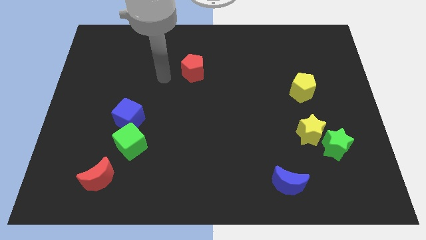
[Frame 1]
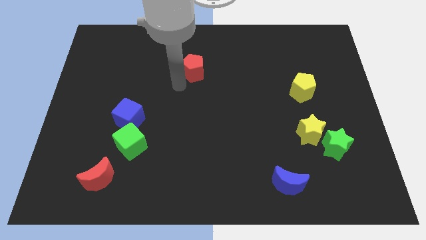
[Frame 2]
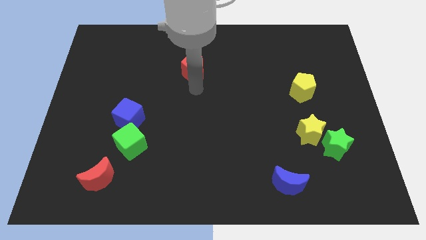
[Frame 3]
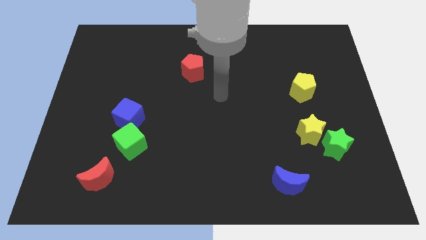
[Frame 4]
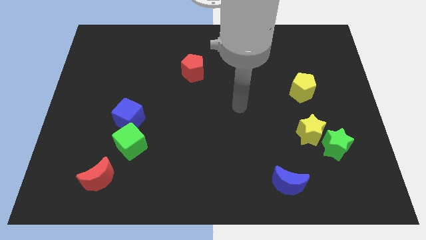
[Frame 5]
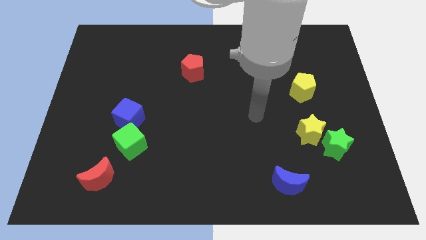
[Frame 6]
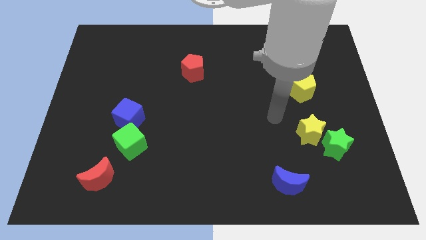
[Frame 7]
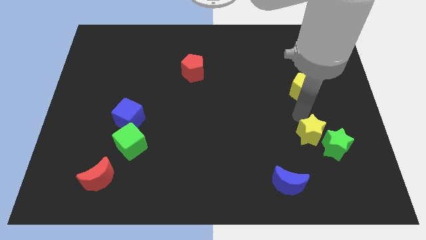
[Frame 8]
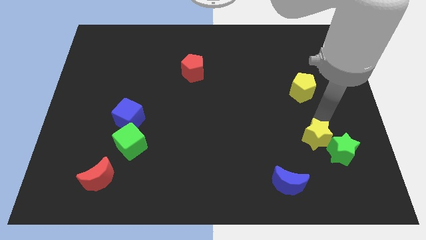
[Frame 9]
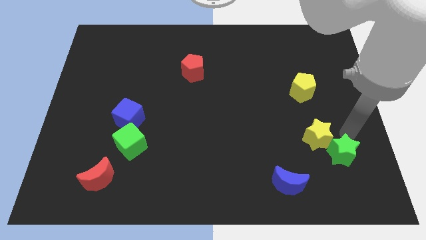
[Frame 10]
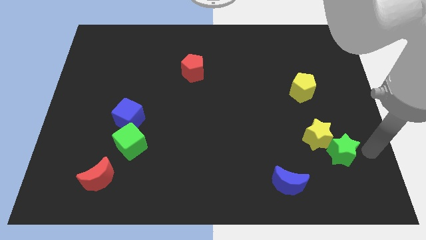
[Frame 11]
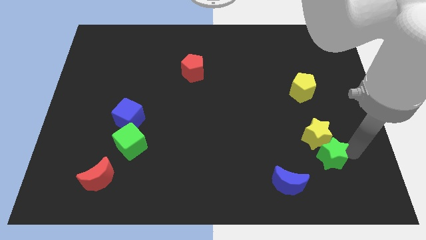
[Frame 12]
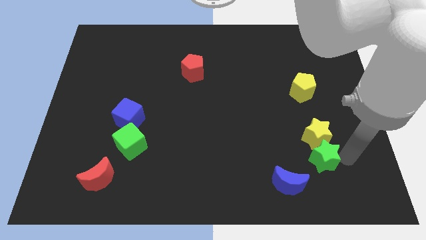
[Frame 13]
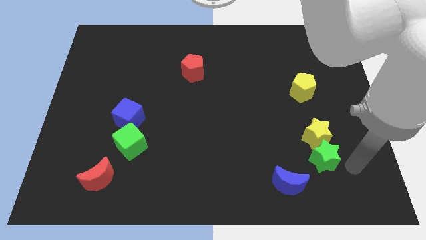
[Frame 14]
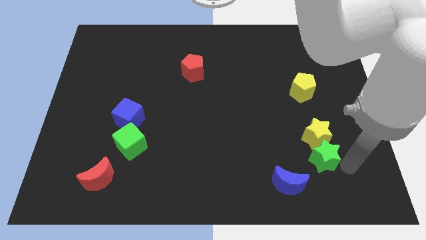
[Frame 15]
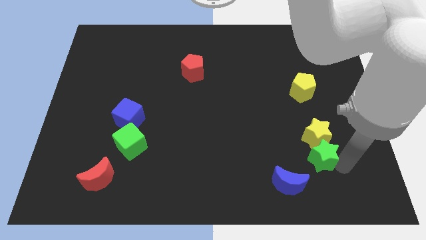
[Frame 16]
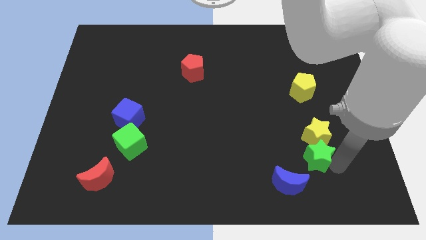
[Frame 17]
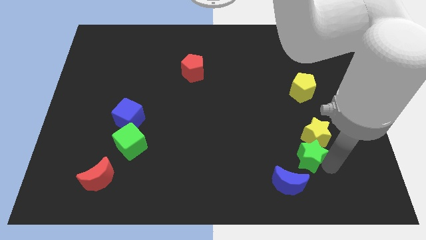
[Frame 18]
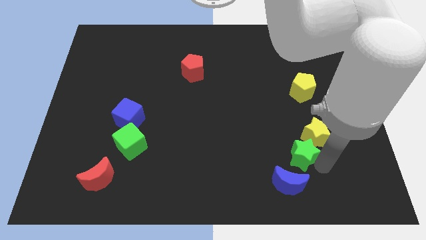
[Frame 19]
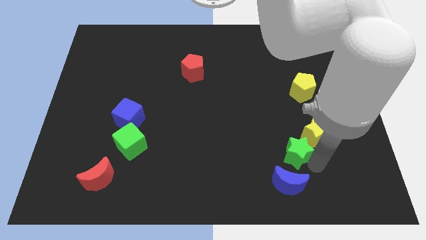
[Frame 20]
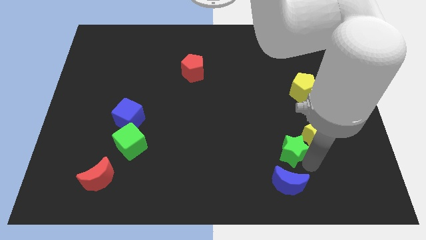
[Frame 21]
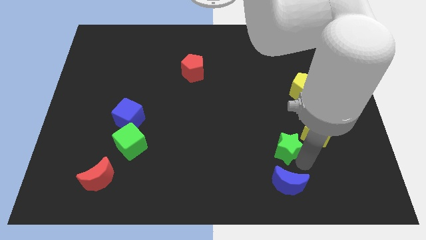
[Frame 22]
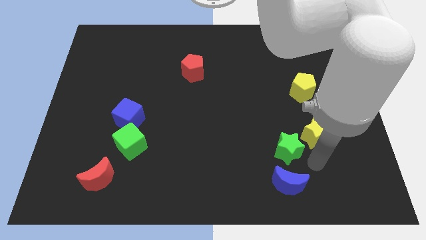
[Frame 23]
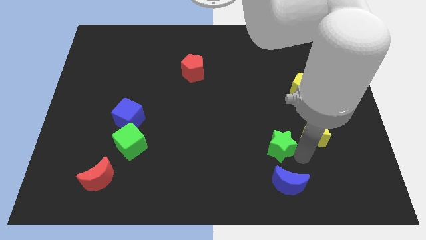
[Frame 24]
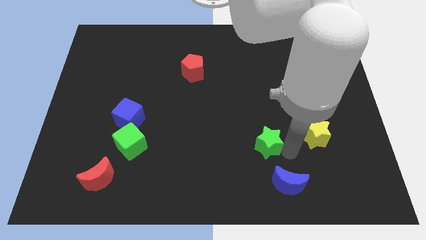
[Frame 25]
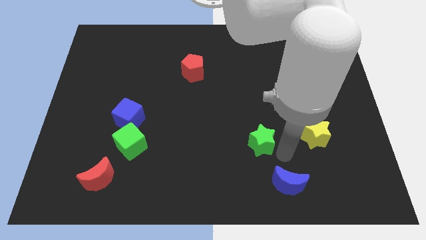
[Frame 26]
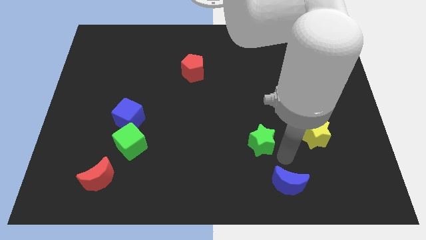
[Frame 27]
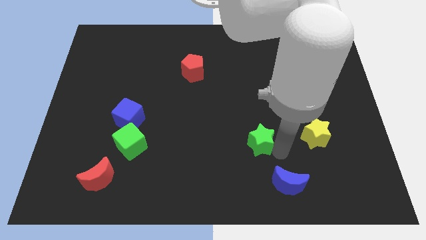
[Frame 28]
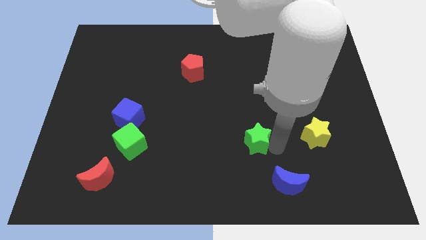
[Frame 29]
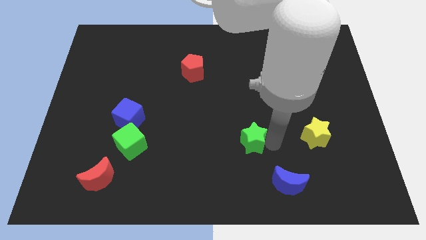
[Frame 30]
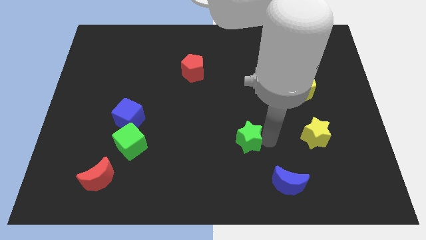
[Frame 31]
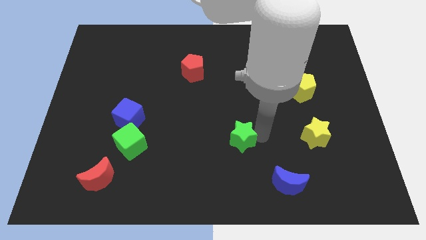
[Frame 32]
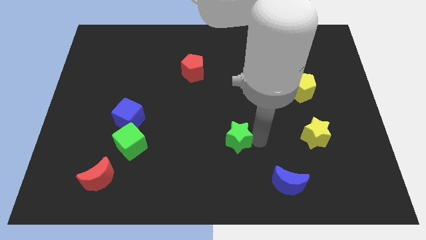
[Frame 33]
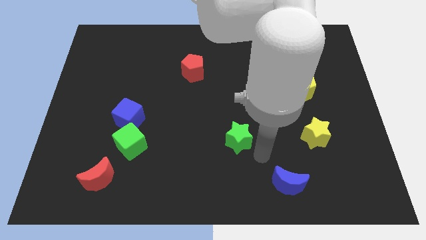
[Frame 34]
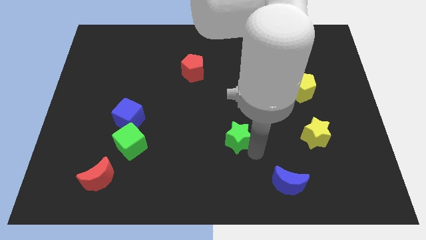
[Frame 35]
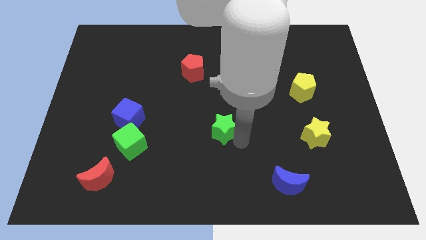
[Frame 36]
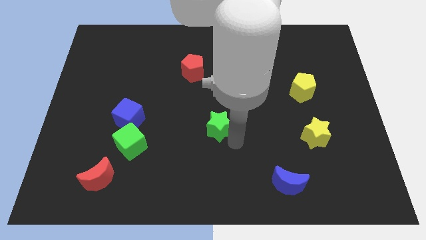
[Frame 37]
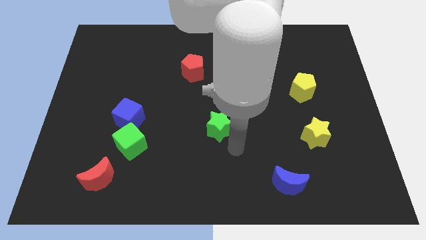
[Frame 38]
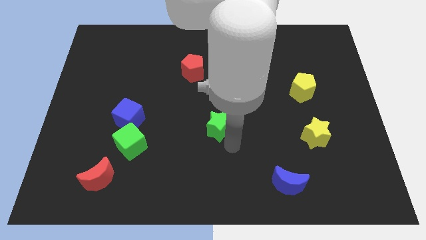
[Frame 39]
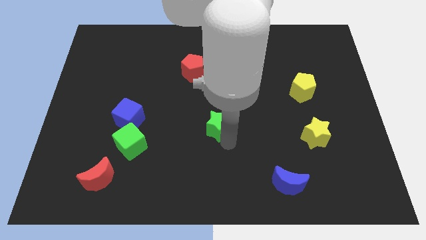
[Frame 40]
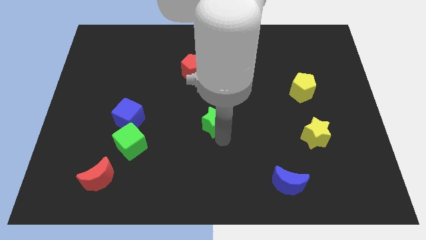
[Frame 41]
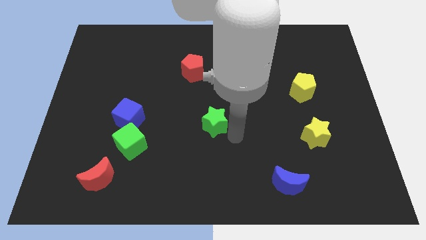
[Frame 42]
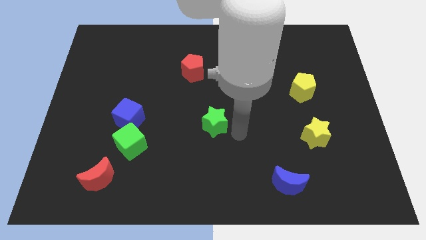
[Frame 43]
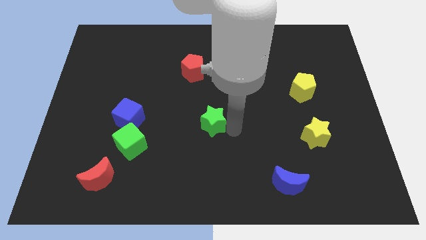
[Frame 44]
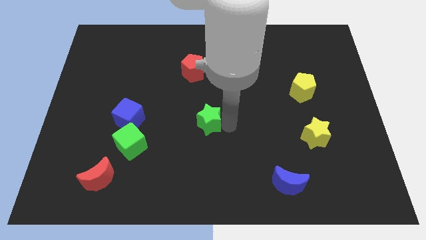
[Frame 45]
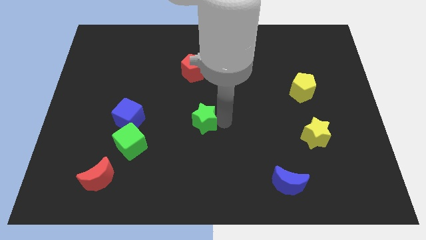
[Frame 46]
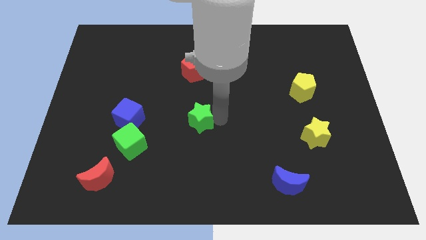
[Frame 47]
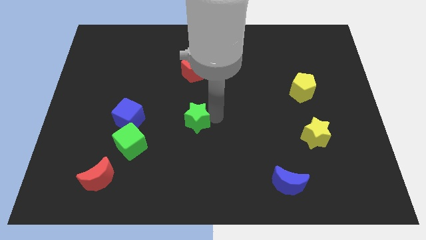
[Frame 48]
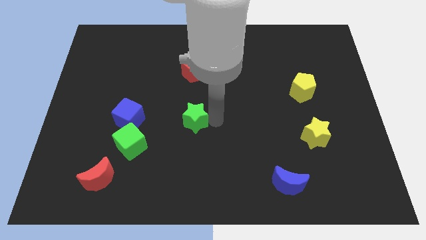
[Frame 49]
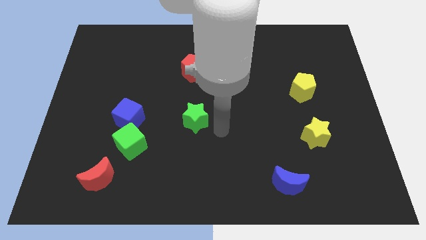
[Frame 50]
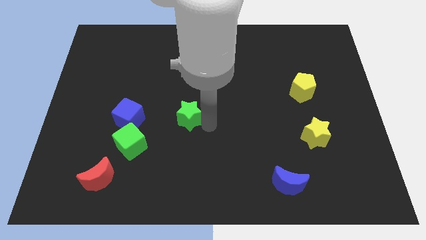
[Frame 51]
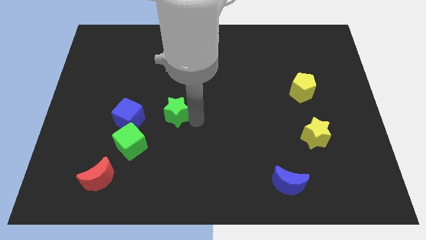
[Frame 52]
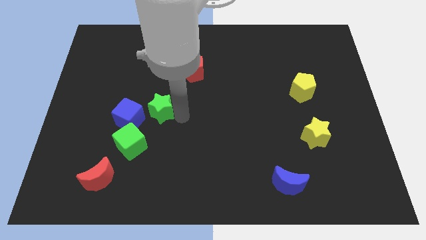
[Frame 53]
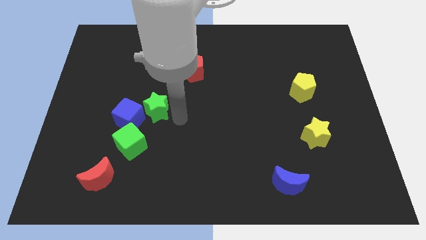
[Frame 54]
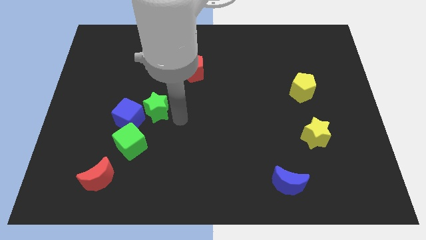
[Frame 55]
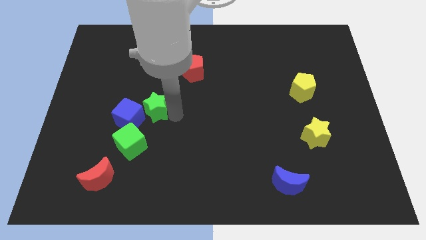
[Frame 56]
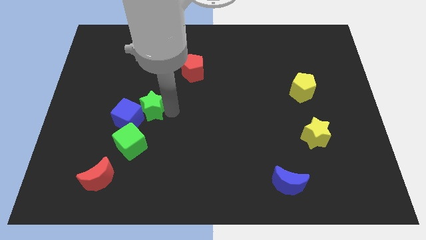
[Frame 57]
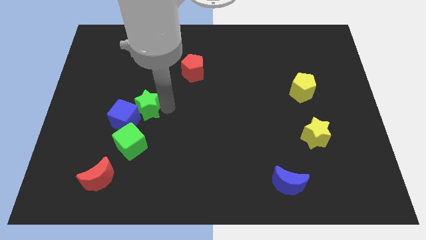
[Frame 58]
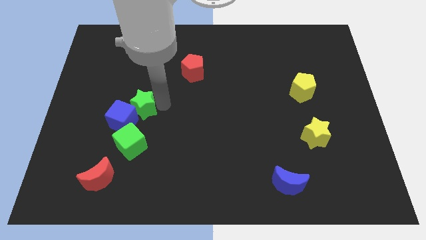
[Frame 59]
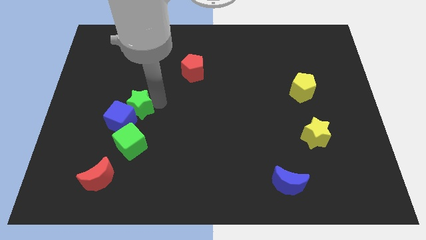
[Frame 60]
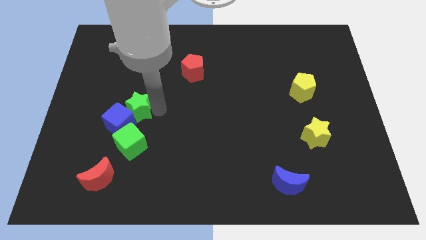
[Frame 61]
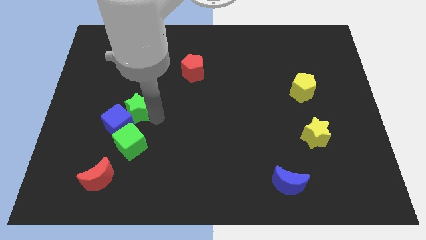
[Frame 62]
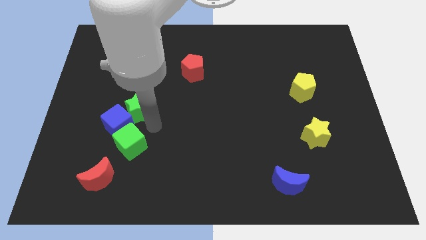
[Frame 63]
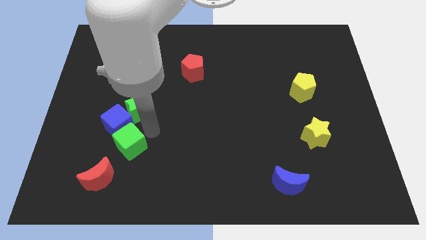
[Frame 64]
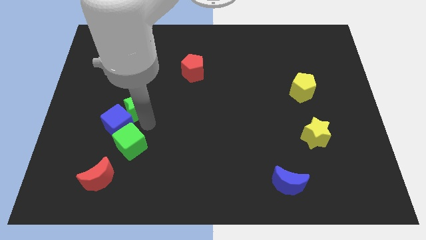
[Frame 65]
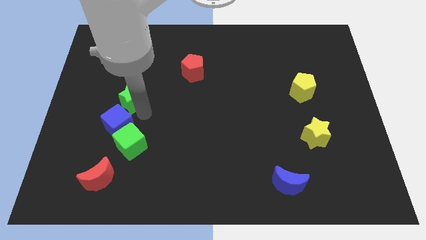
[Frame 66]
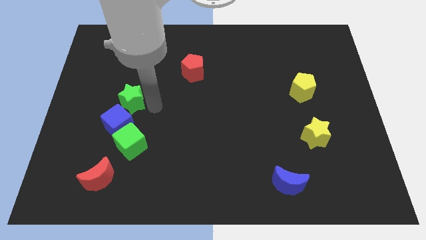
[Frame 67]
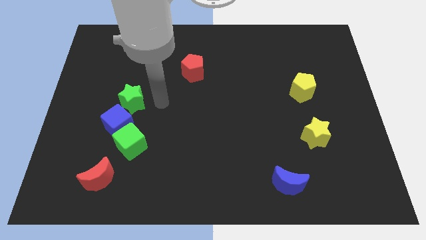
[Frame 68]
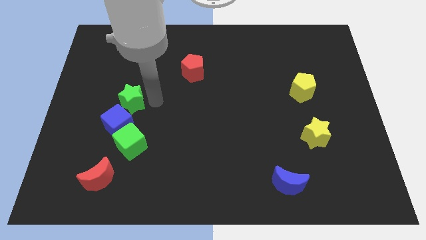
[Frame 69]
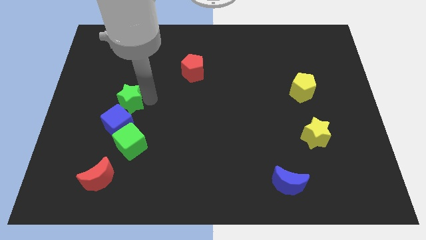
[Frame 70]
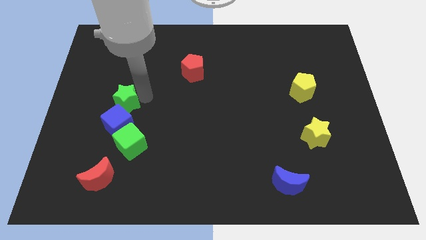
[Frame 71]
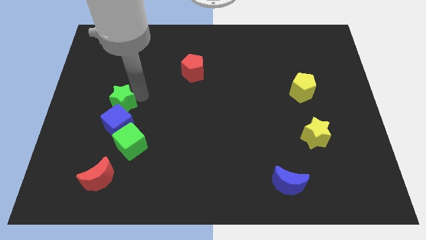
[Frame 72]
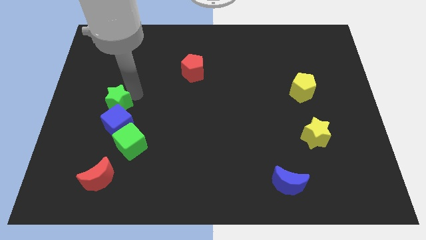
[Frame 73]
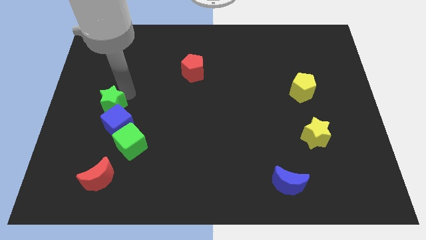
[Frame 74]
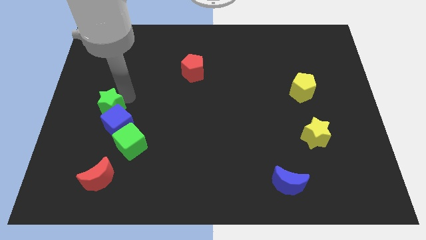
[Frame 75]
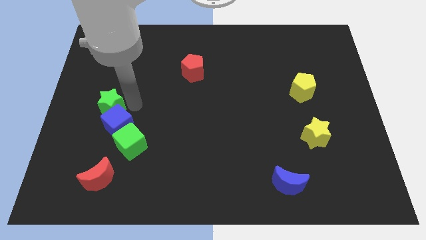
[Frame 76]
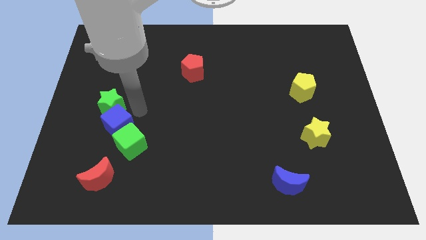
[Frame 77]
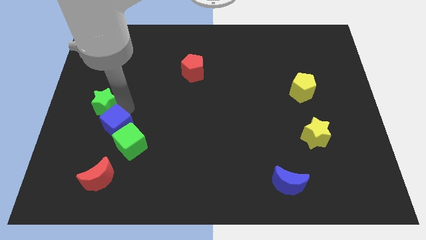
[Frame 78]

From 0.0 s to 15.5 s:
move the green star to the left side
